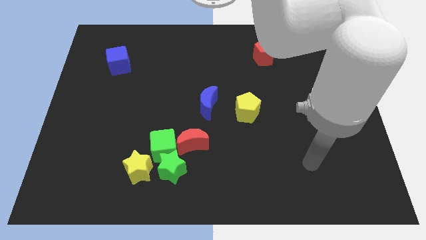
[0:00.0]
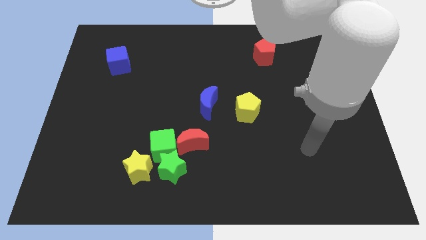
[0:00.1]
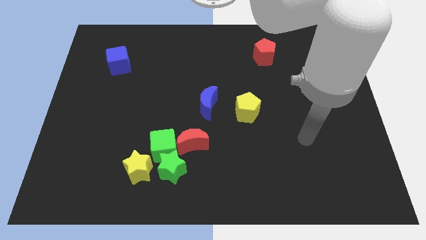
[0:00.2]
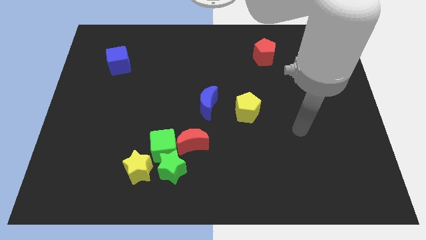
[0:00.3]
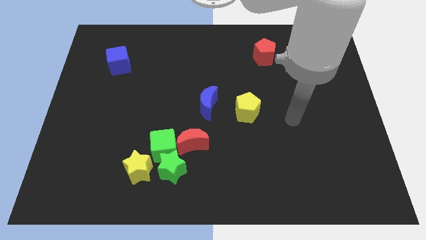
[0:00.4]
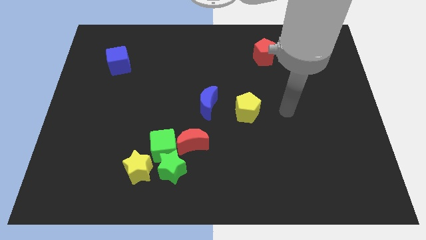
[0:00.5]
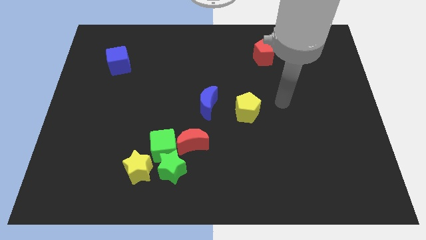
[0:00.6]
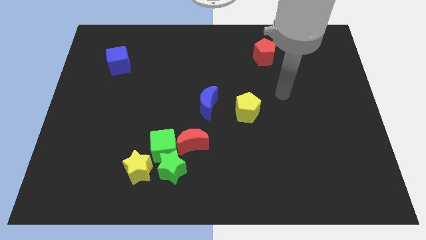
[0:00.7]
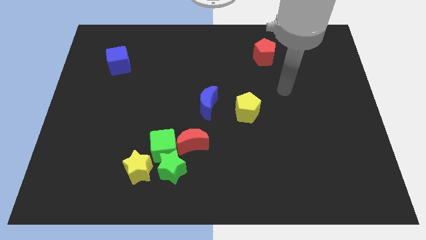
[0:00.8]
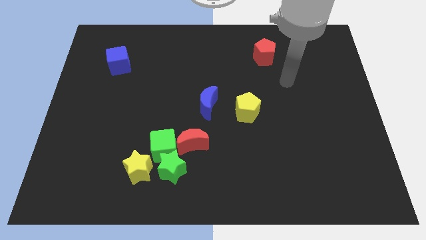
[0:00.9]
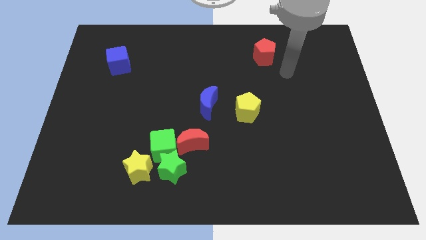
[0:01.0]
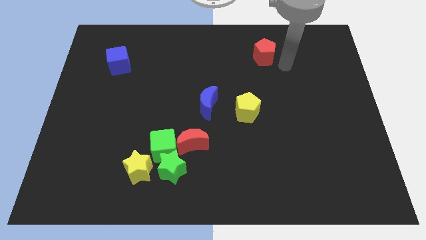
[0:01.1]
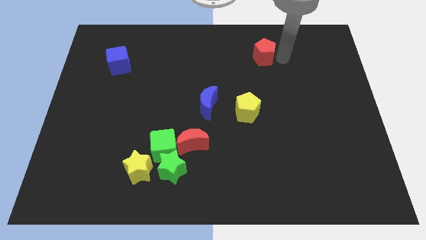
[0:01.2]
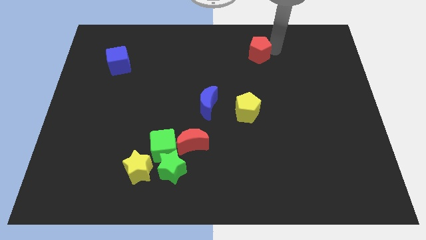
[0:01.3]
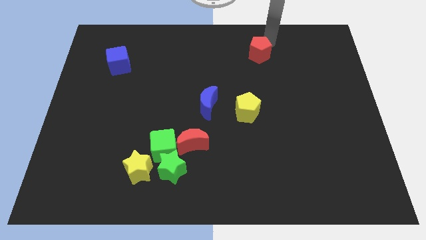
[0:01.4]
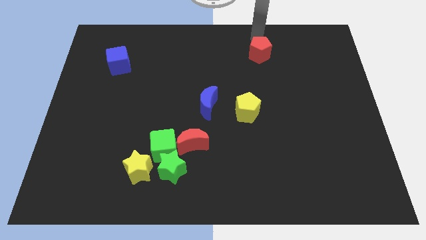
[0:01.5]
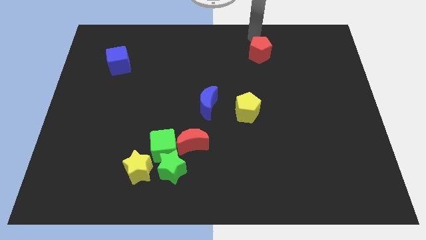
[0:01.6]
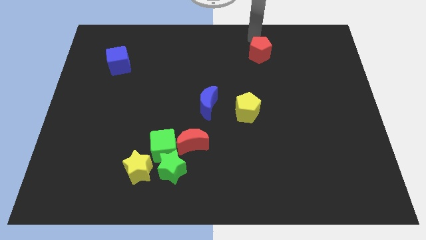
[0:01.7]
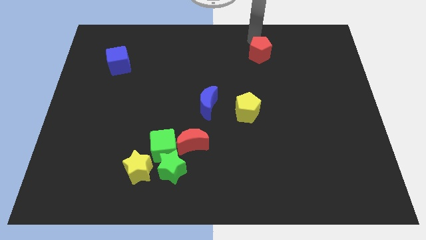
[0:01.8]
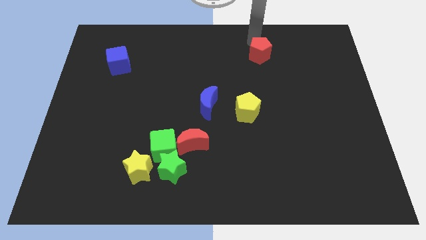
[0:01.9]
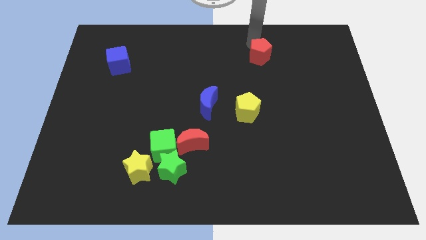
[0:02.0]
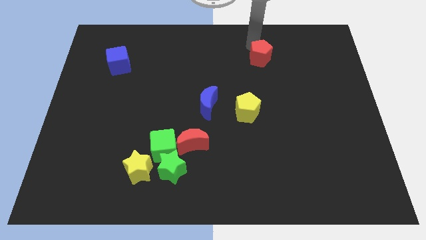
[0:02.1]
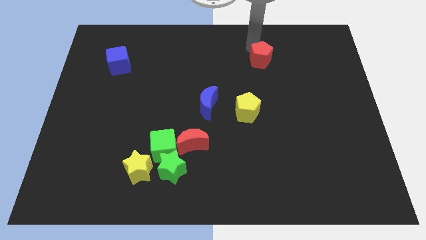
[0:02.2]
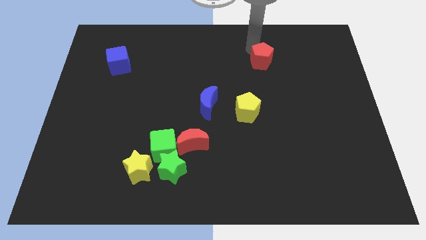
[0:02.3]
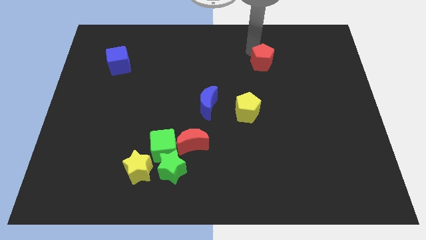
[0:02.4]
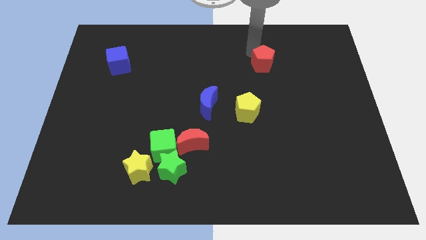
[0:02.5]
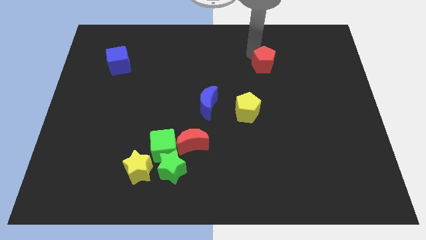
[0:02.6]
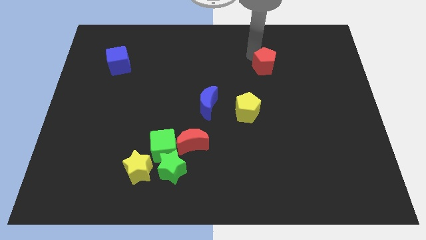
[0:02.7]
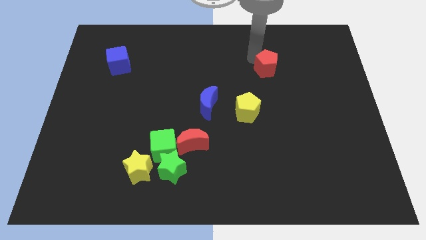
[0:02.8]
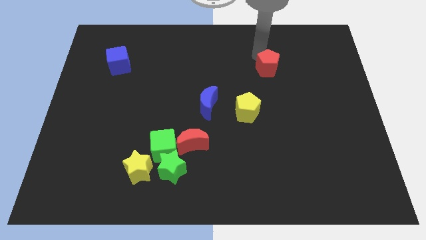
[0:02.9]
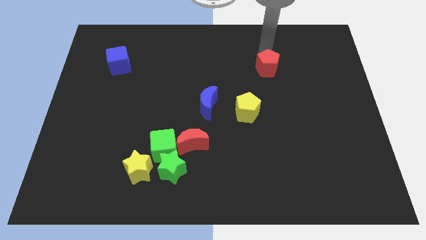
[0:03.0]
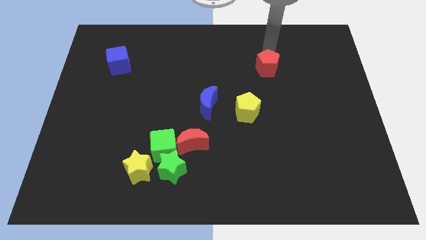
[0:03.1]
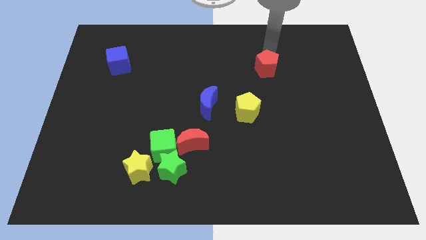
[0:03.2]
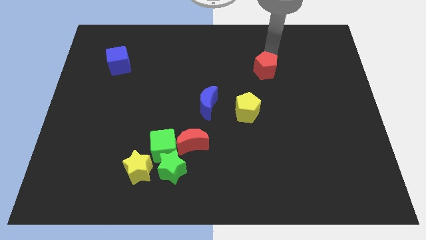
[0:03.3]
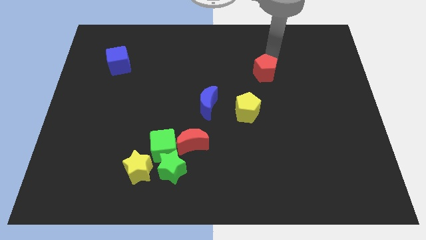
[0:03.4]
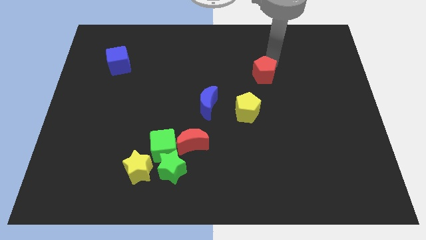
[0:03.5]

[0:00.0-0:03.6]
slide the red pentagon downwards a little

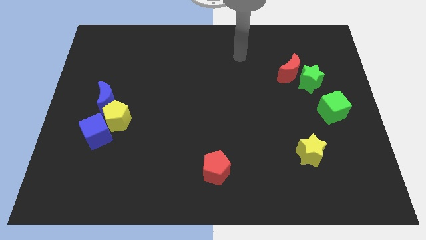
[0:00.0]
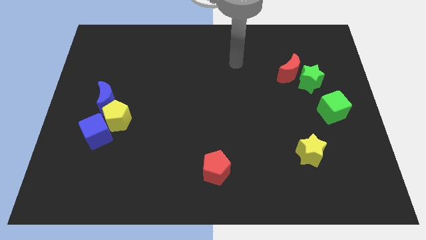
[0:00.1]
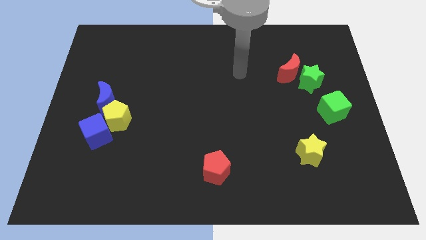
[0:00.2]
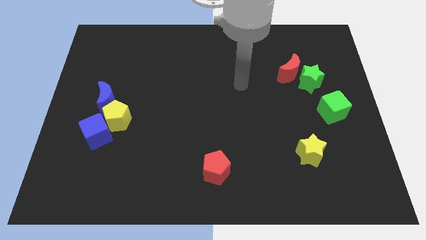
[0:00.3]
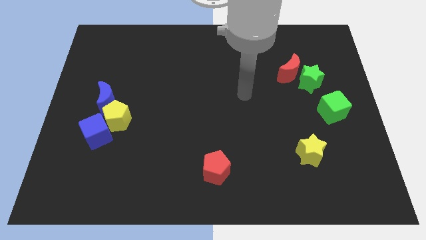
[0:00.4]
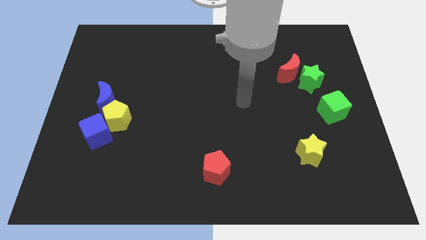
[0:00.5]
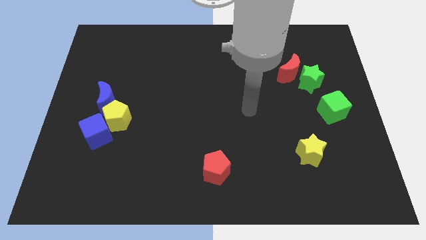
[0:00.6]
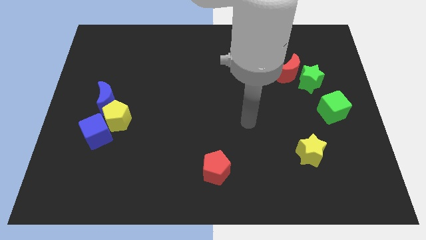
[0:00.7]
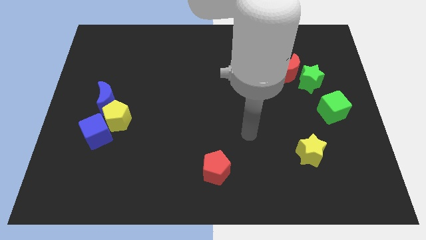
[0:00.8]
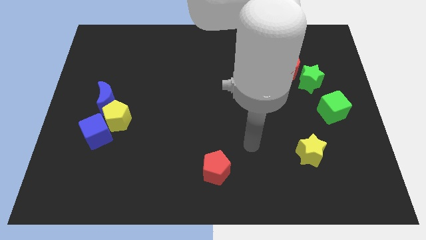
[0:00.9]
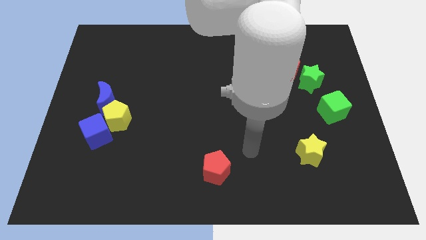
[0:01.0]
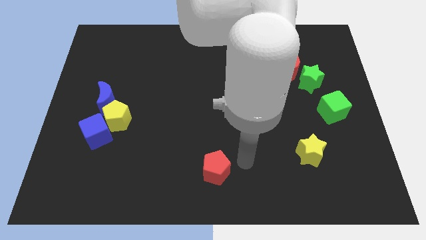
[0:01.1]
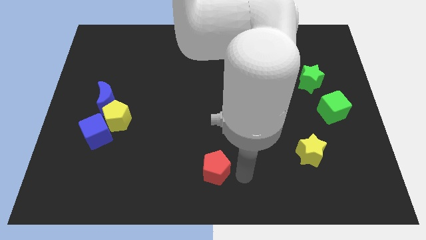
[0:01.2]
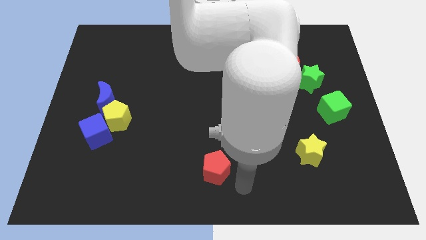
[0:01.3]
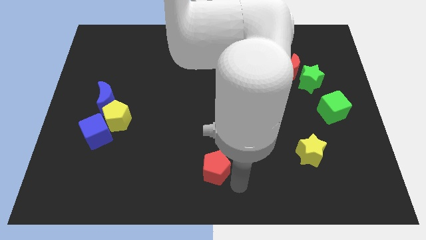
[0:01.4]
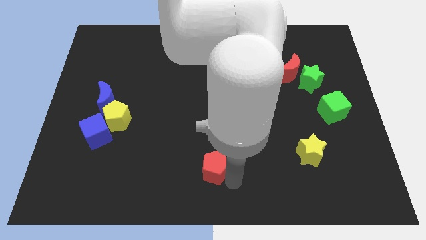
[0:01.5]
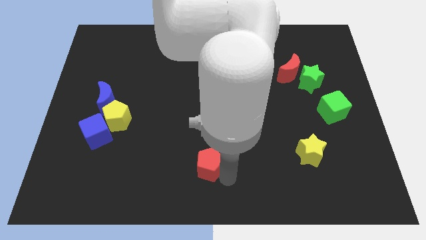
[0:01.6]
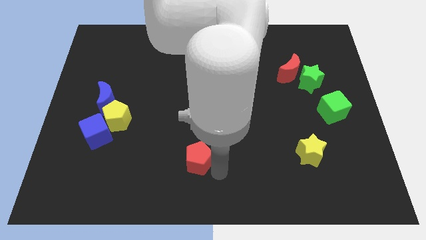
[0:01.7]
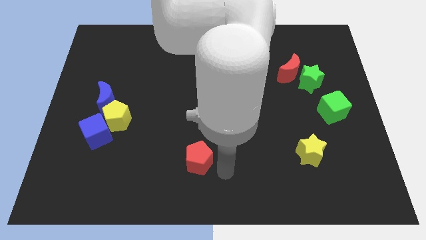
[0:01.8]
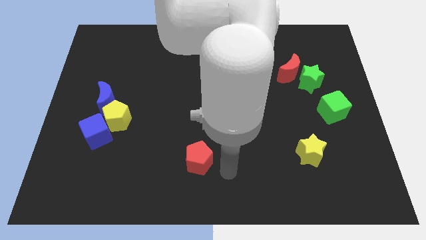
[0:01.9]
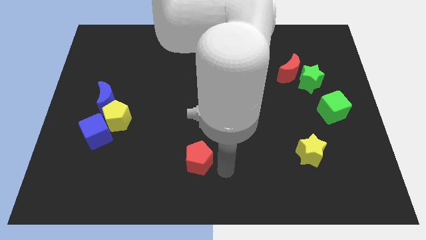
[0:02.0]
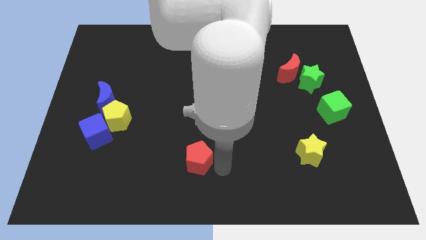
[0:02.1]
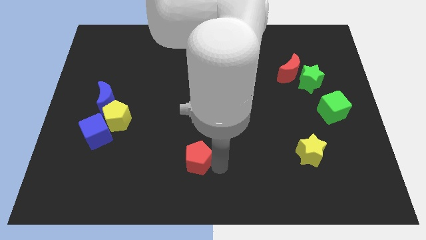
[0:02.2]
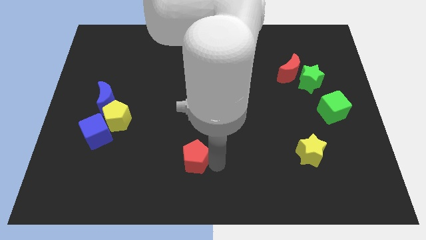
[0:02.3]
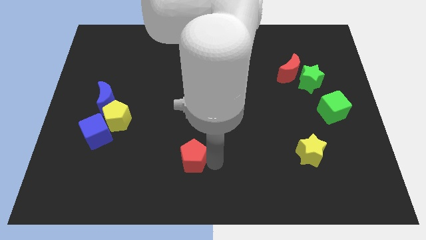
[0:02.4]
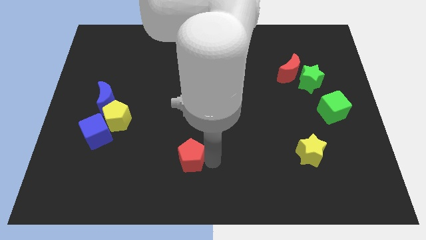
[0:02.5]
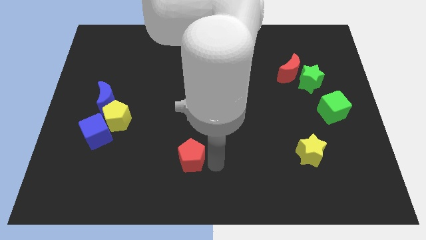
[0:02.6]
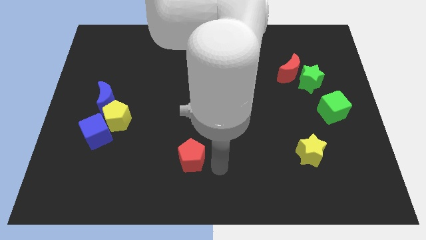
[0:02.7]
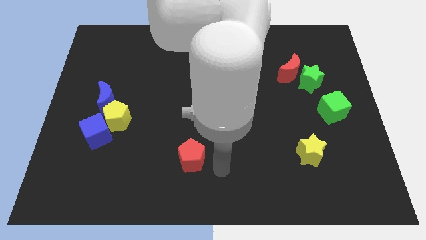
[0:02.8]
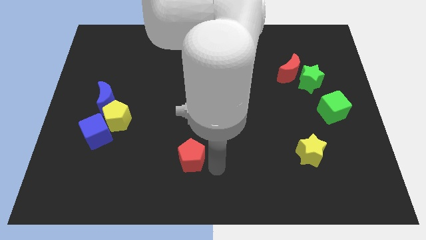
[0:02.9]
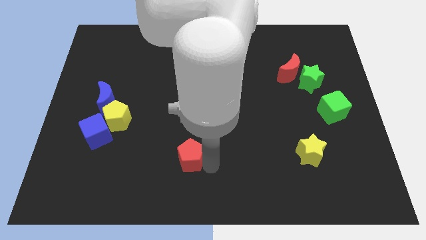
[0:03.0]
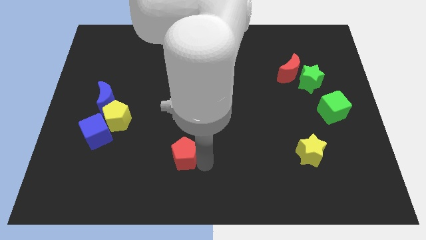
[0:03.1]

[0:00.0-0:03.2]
slightly move the red pentagon up and to the left

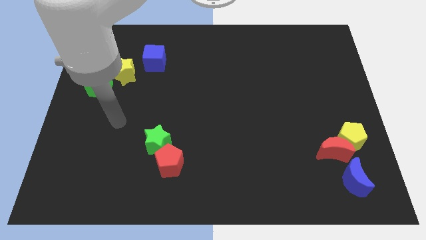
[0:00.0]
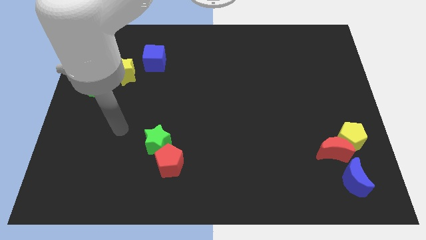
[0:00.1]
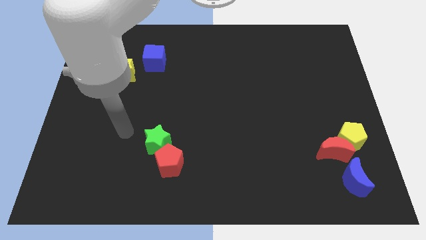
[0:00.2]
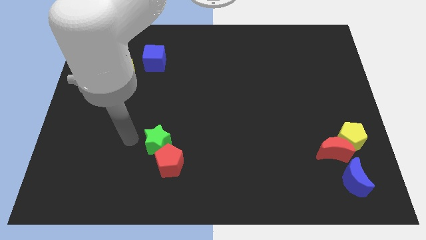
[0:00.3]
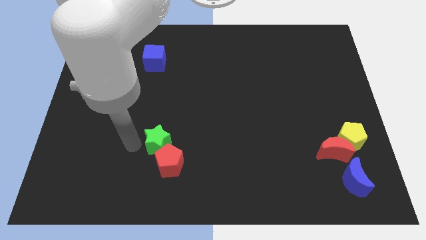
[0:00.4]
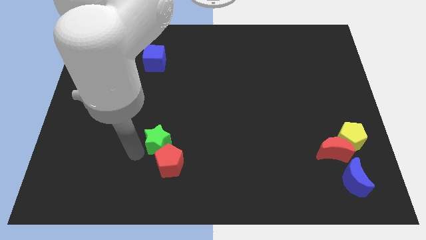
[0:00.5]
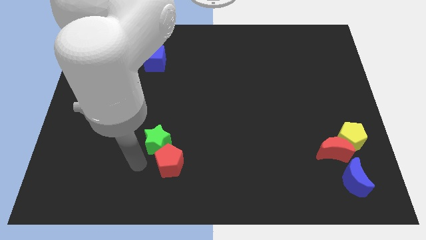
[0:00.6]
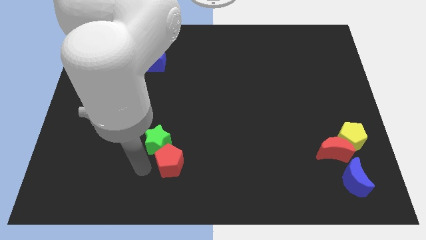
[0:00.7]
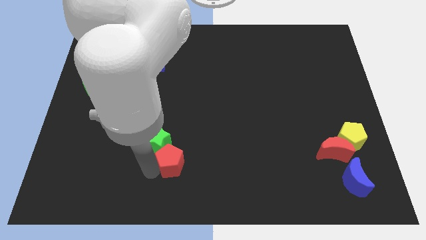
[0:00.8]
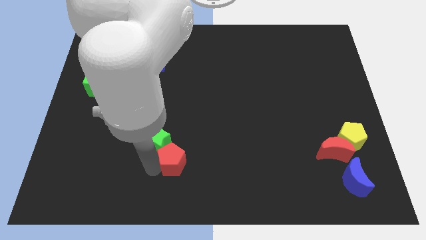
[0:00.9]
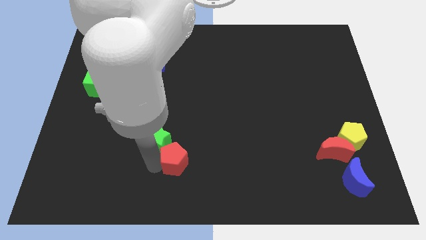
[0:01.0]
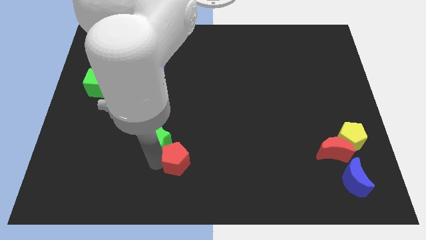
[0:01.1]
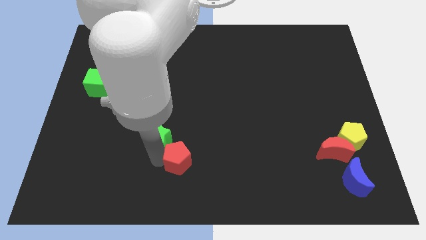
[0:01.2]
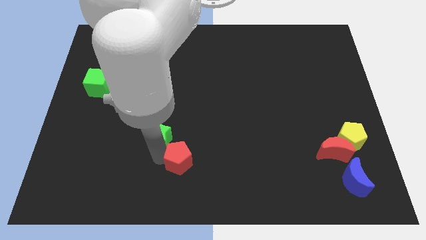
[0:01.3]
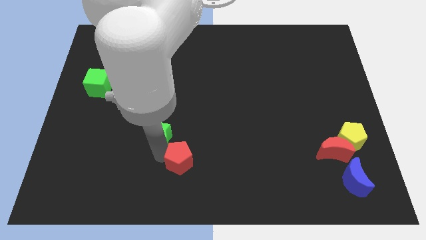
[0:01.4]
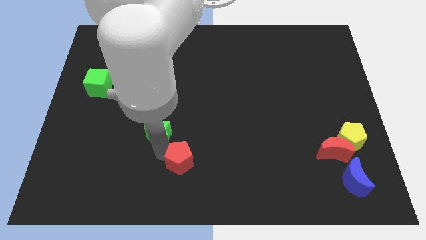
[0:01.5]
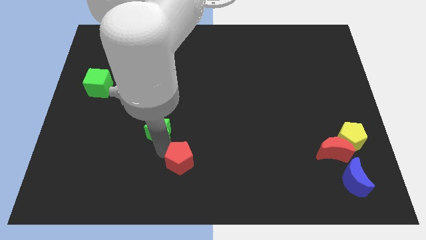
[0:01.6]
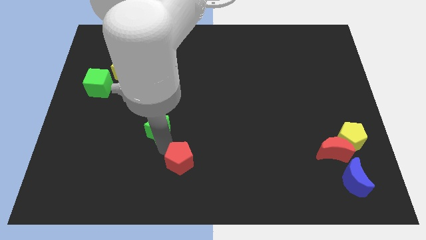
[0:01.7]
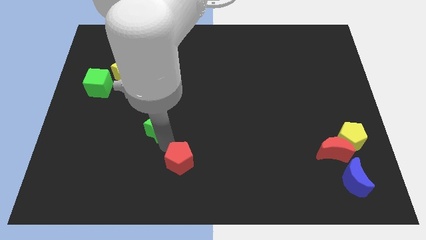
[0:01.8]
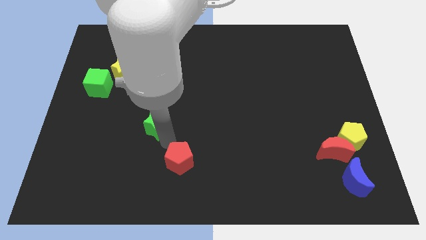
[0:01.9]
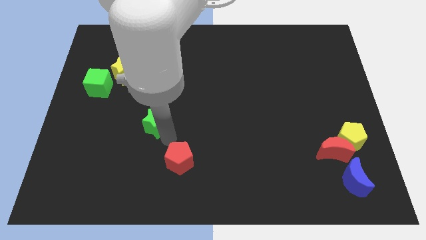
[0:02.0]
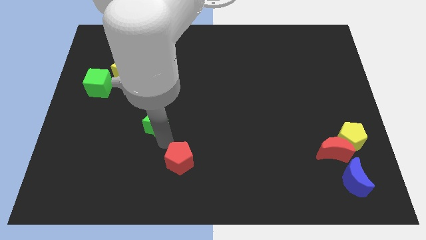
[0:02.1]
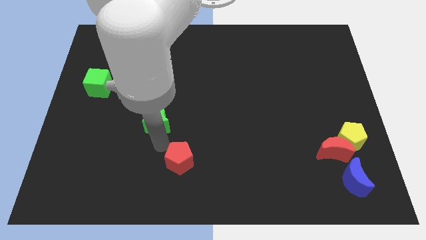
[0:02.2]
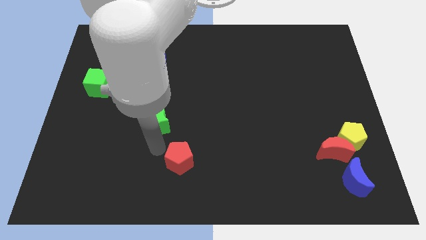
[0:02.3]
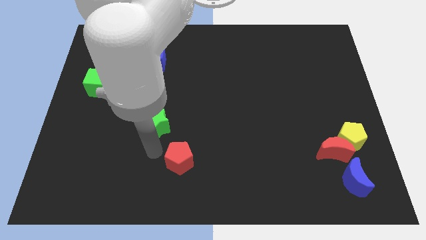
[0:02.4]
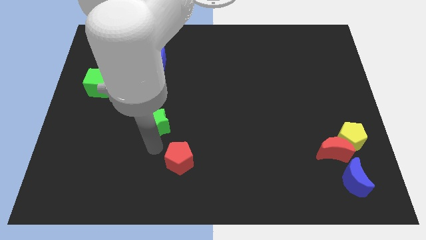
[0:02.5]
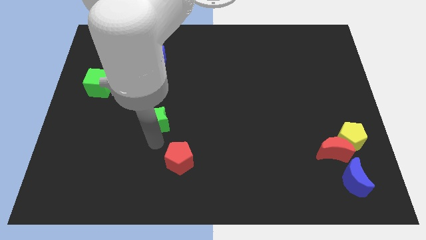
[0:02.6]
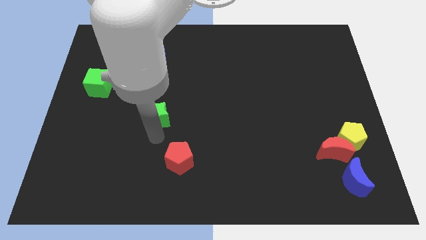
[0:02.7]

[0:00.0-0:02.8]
slightly slide the green star up
